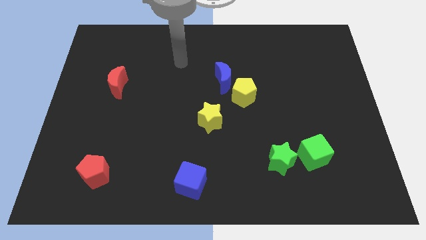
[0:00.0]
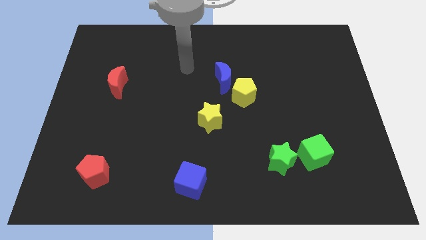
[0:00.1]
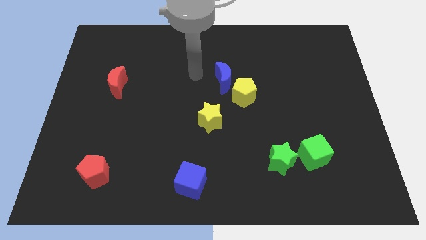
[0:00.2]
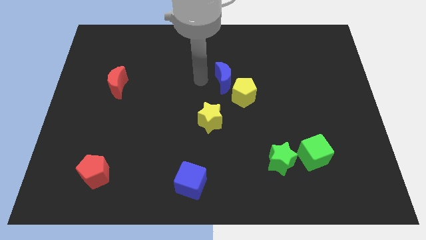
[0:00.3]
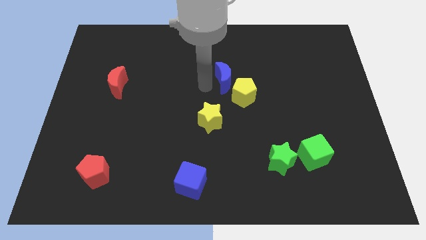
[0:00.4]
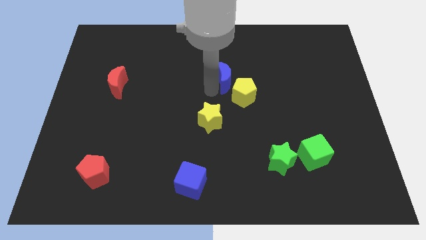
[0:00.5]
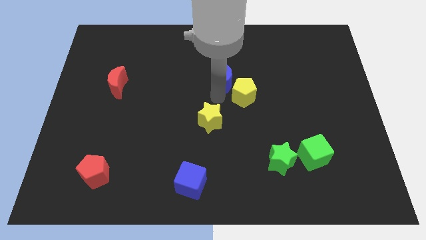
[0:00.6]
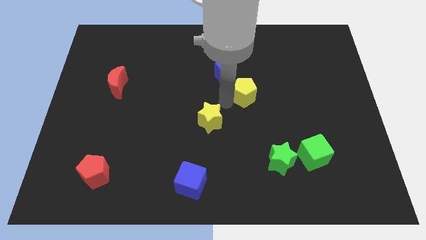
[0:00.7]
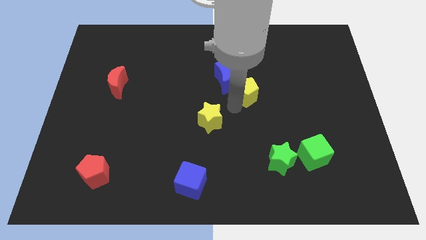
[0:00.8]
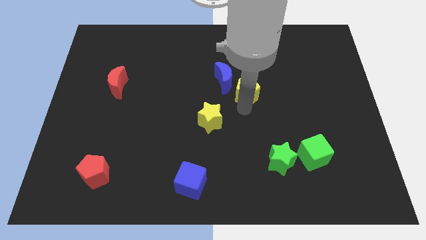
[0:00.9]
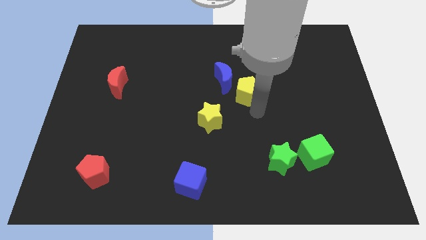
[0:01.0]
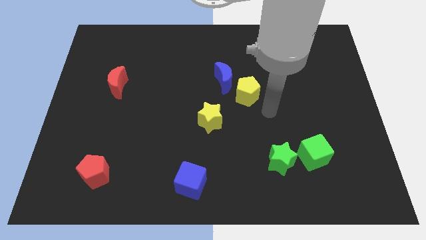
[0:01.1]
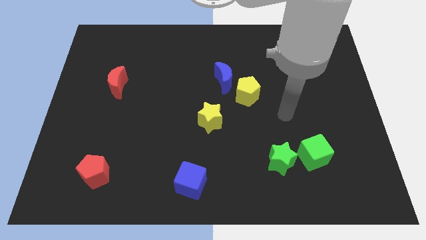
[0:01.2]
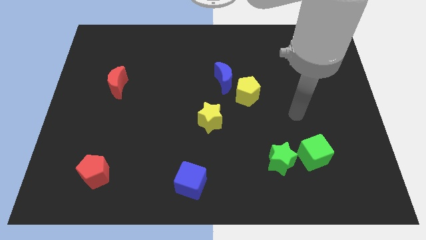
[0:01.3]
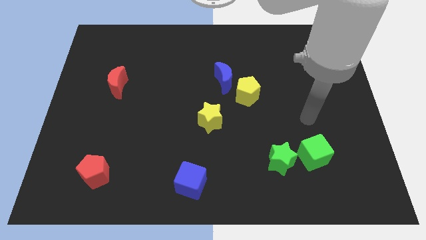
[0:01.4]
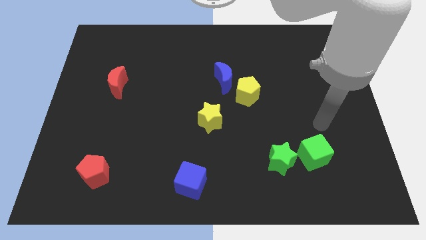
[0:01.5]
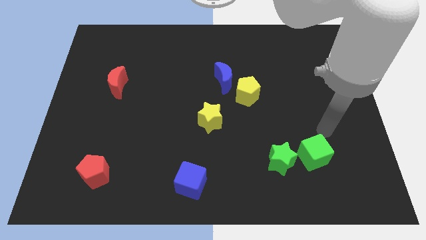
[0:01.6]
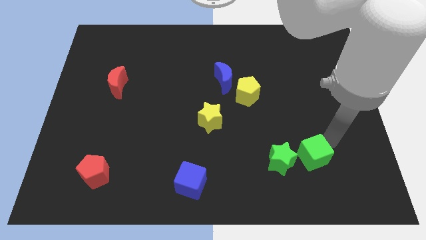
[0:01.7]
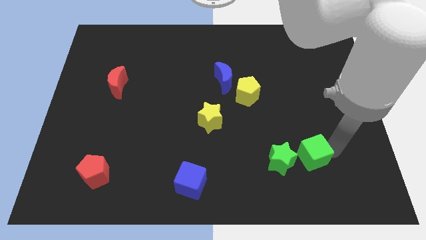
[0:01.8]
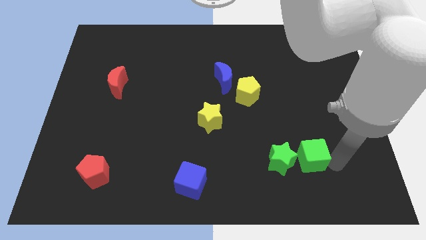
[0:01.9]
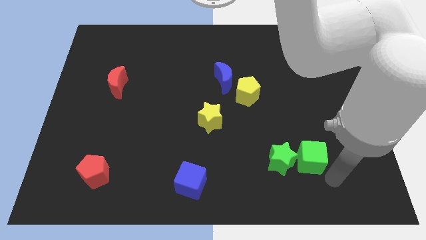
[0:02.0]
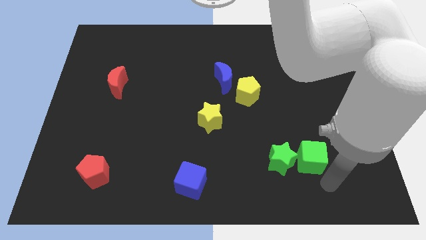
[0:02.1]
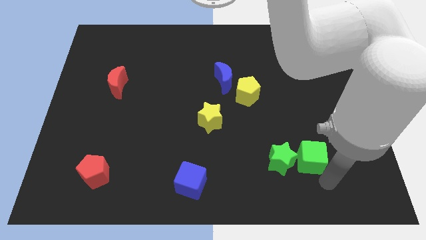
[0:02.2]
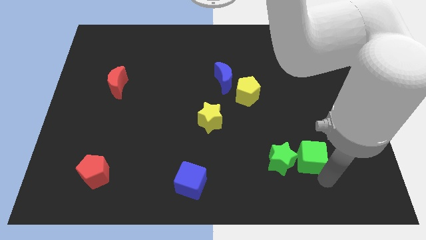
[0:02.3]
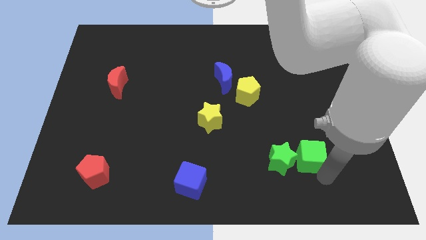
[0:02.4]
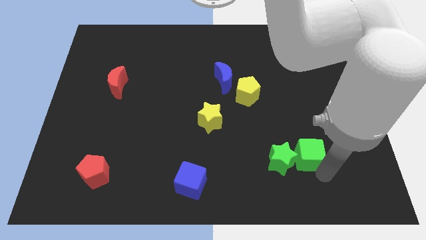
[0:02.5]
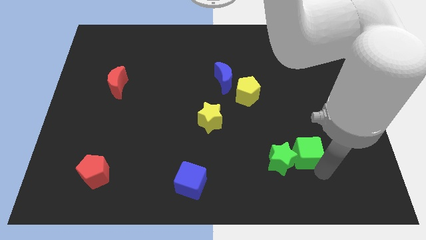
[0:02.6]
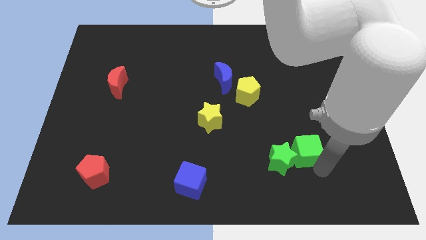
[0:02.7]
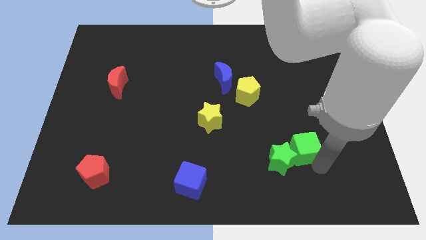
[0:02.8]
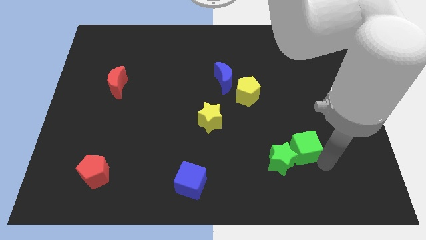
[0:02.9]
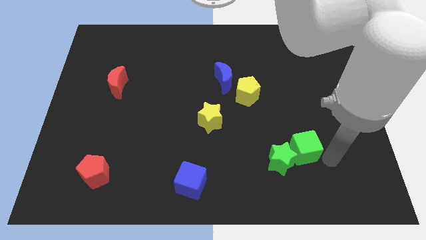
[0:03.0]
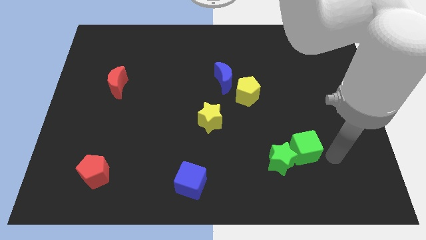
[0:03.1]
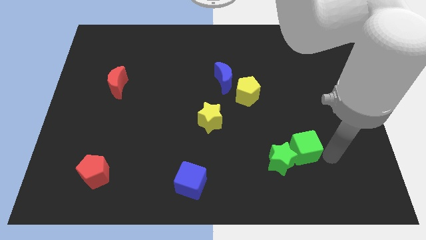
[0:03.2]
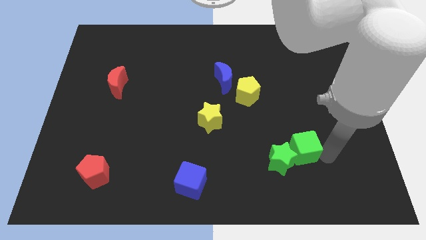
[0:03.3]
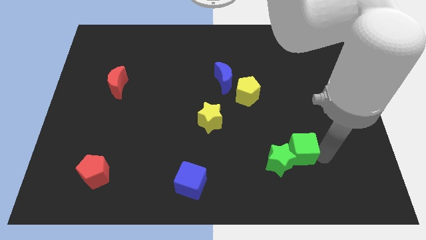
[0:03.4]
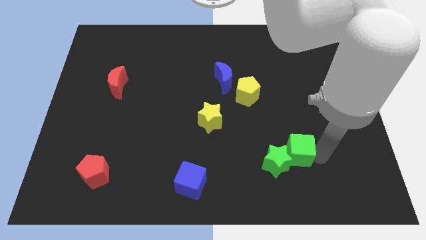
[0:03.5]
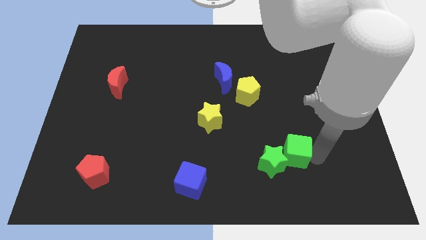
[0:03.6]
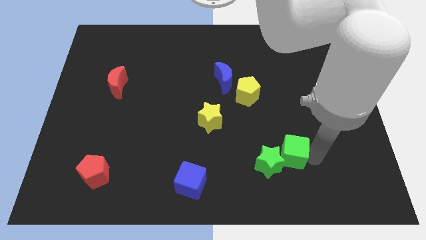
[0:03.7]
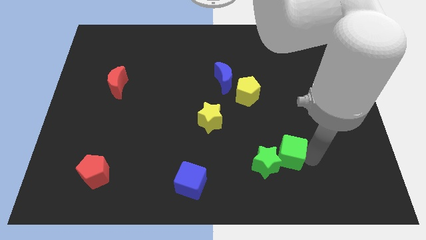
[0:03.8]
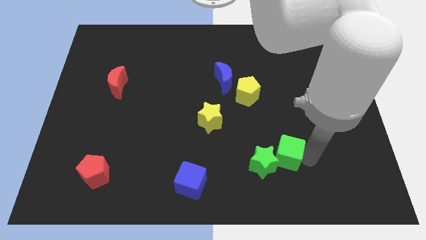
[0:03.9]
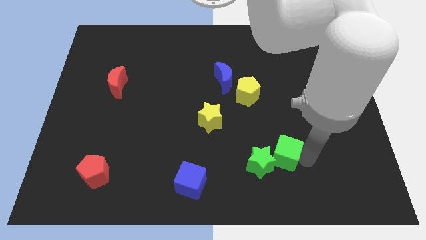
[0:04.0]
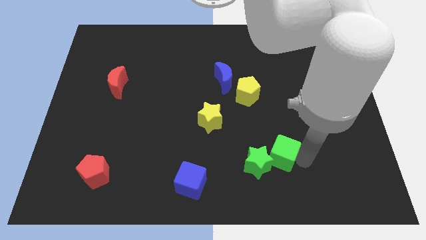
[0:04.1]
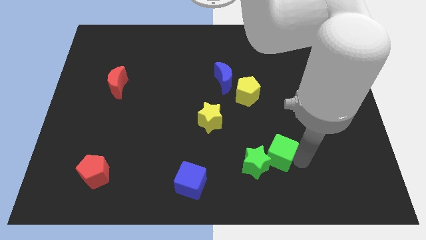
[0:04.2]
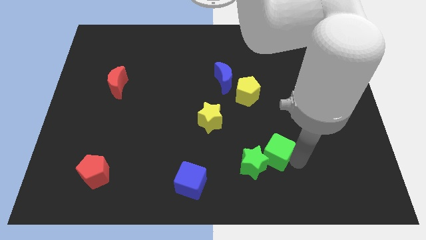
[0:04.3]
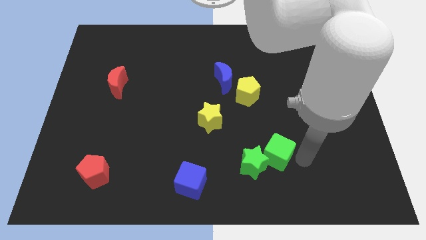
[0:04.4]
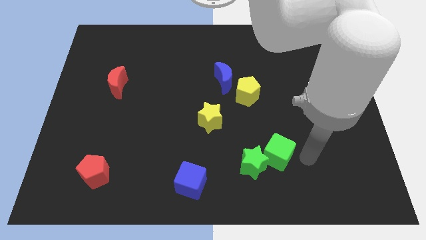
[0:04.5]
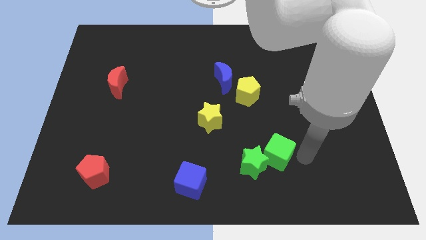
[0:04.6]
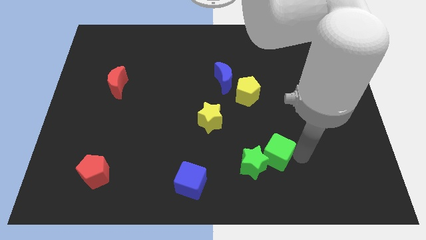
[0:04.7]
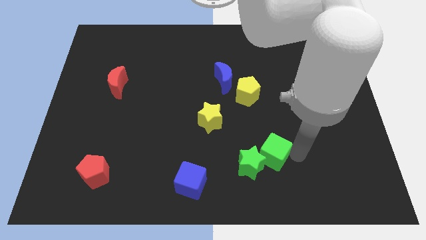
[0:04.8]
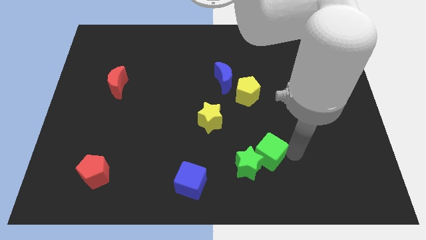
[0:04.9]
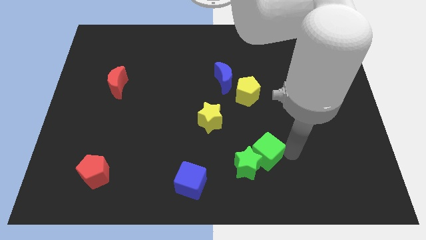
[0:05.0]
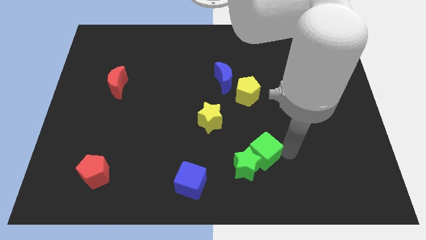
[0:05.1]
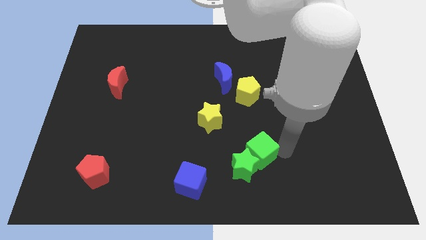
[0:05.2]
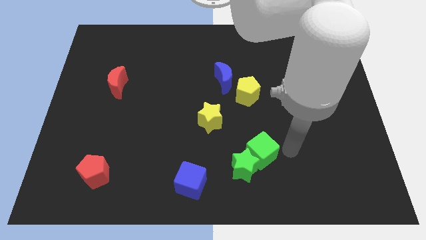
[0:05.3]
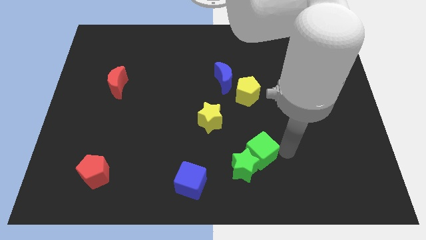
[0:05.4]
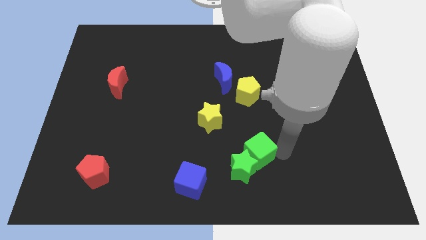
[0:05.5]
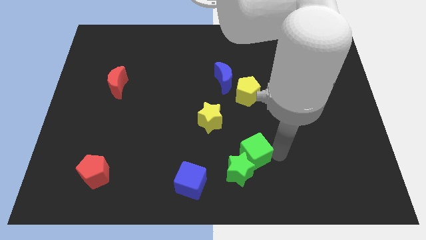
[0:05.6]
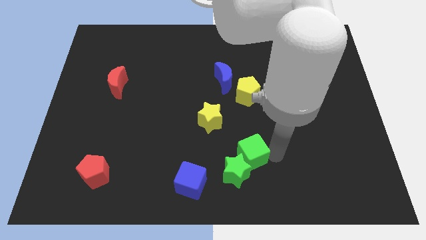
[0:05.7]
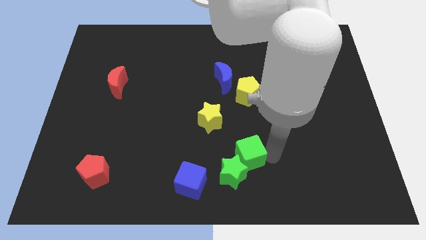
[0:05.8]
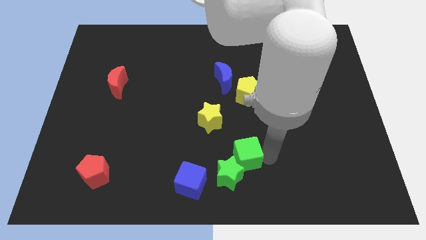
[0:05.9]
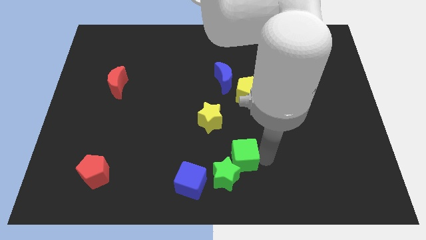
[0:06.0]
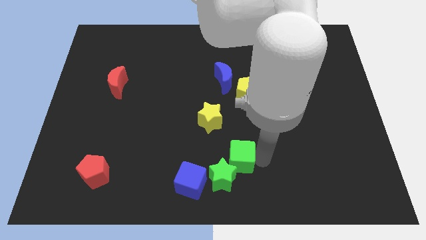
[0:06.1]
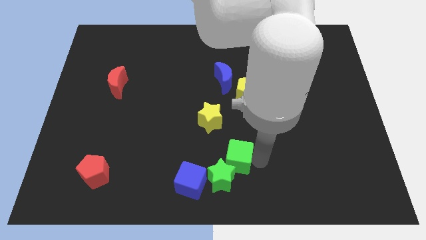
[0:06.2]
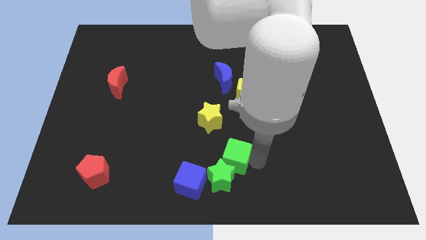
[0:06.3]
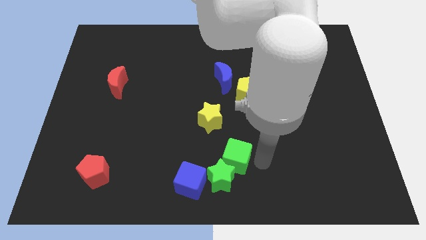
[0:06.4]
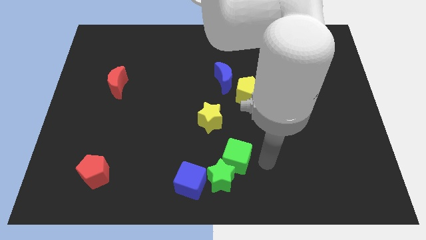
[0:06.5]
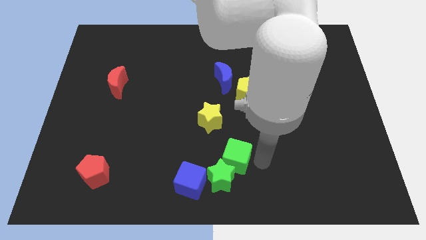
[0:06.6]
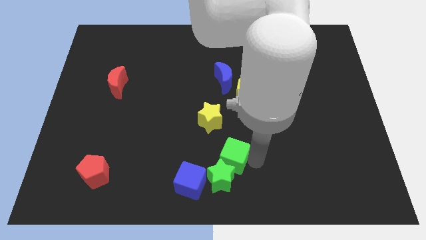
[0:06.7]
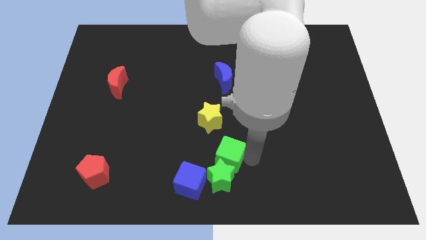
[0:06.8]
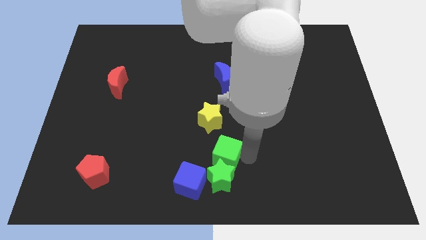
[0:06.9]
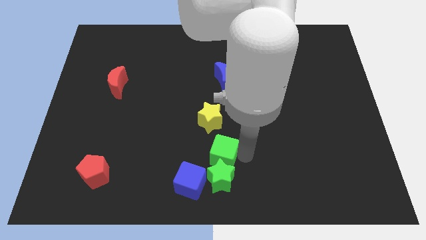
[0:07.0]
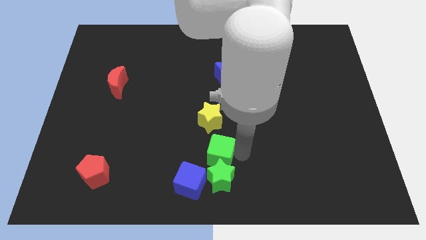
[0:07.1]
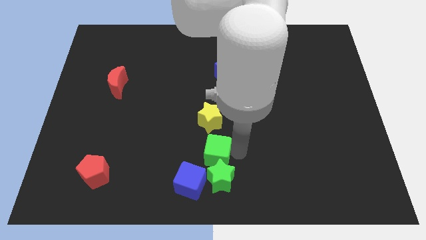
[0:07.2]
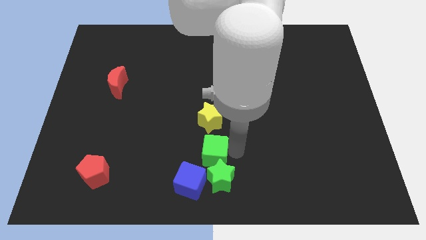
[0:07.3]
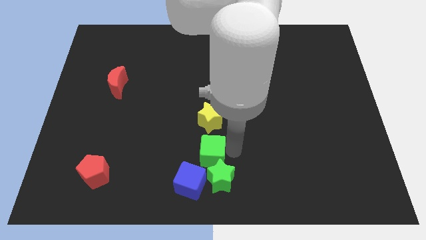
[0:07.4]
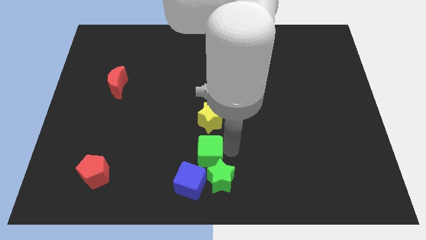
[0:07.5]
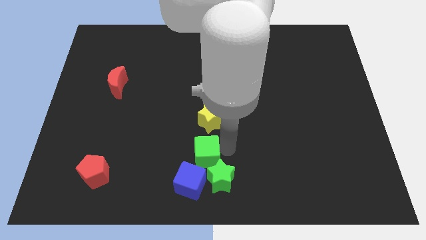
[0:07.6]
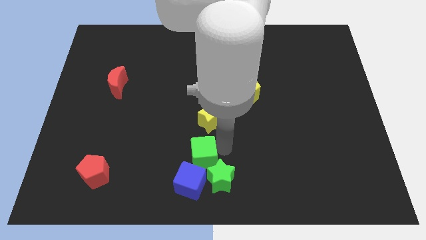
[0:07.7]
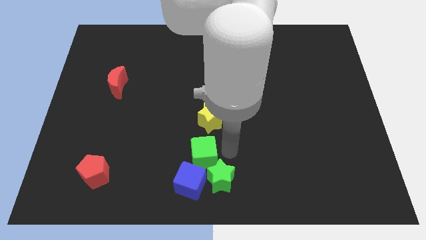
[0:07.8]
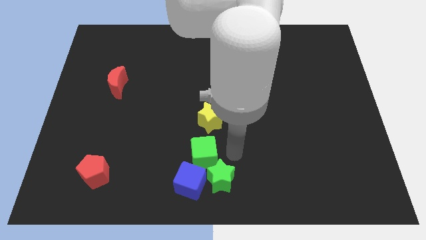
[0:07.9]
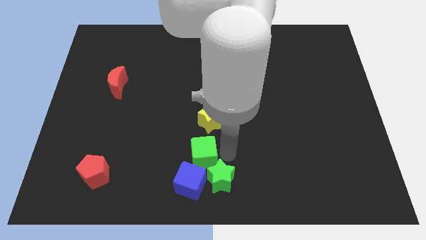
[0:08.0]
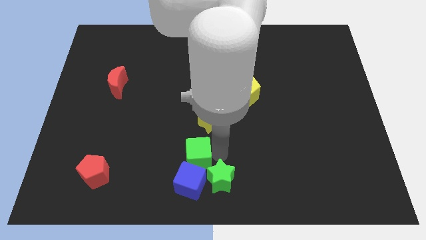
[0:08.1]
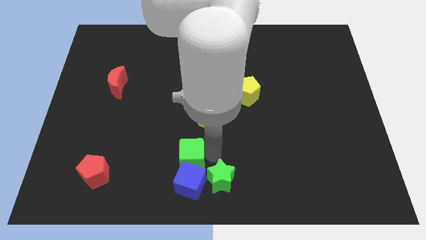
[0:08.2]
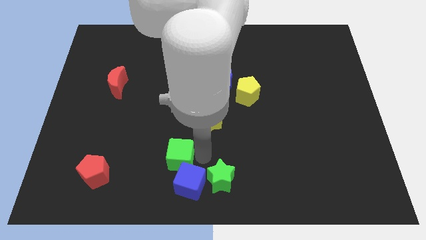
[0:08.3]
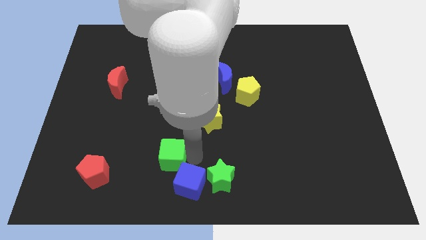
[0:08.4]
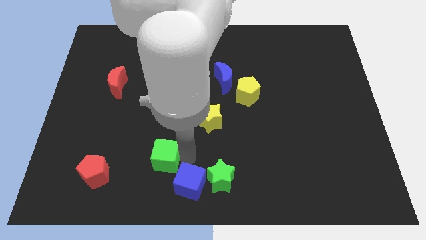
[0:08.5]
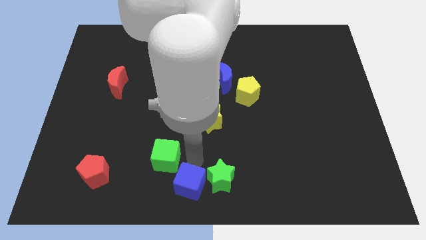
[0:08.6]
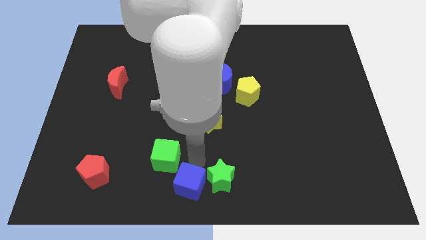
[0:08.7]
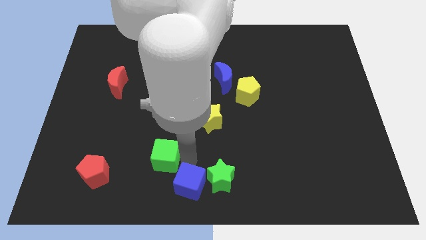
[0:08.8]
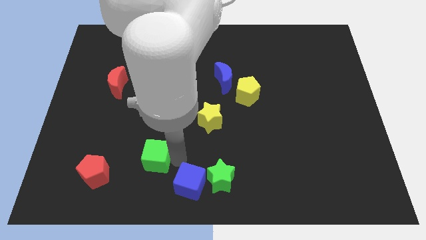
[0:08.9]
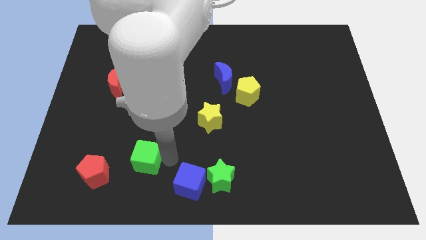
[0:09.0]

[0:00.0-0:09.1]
put the green cube to the top right of the red pentagon
